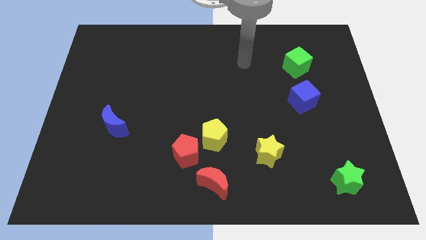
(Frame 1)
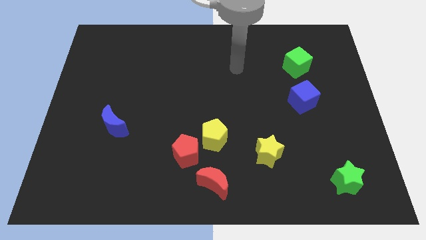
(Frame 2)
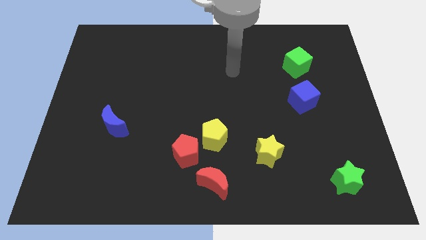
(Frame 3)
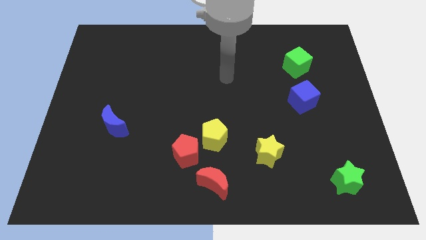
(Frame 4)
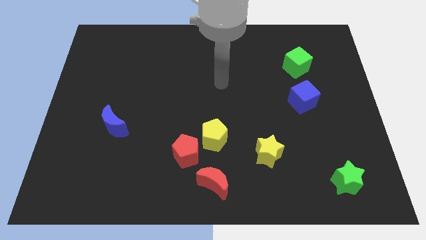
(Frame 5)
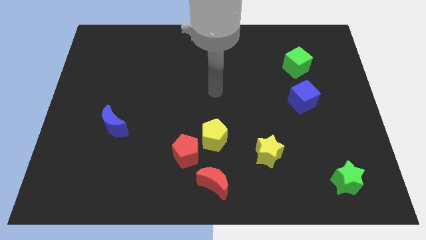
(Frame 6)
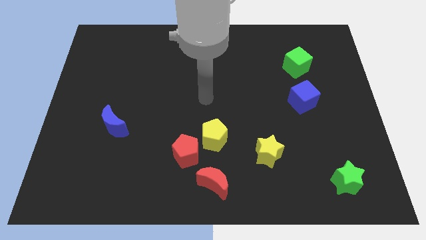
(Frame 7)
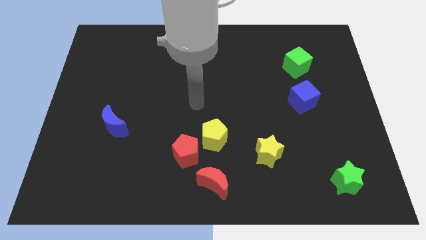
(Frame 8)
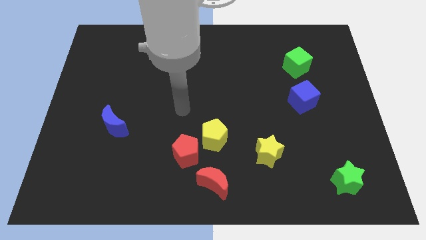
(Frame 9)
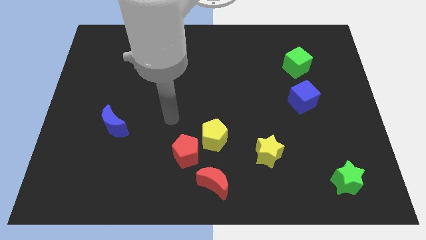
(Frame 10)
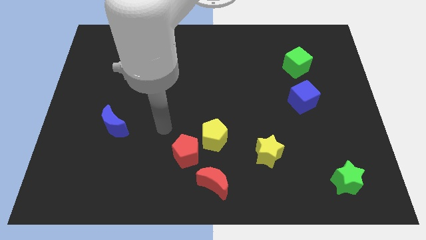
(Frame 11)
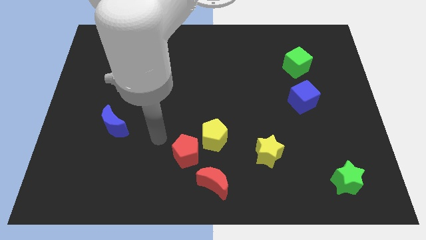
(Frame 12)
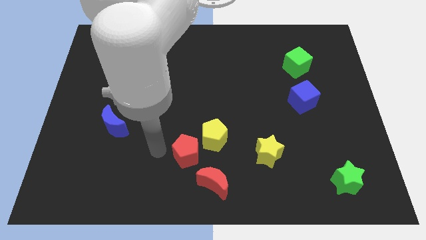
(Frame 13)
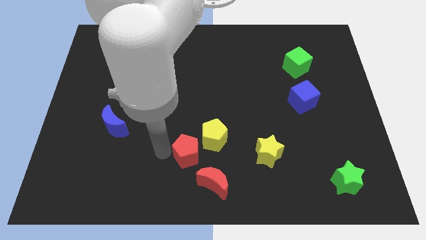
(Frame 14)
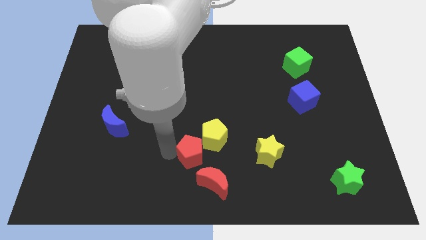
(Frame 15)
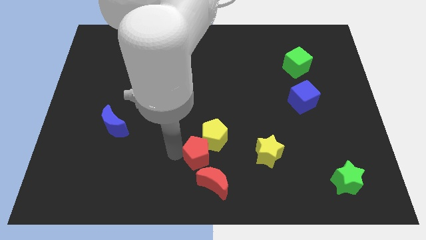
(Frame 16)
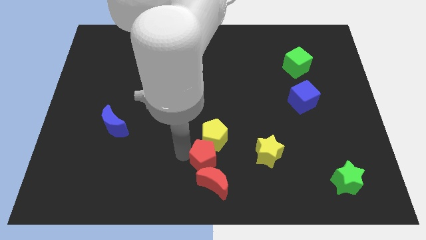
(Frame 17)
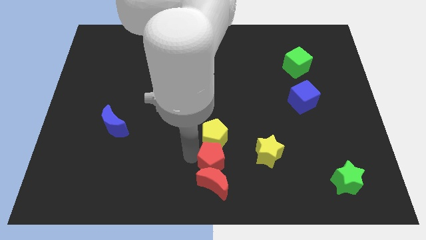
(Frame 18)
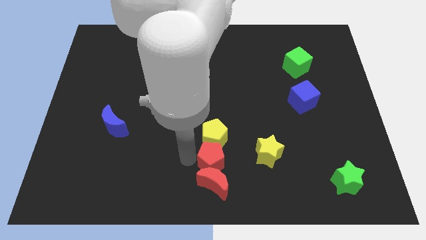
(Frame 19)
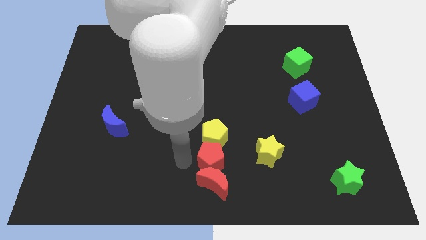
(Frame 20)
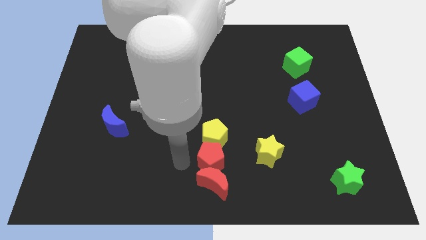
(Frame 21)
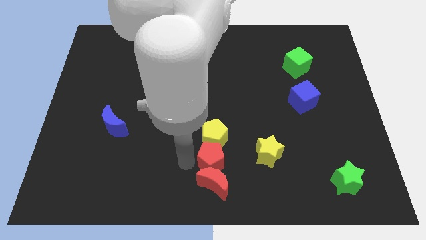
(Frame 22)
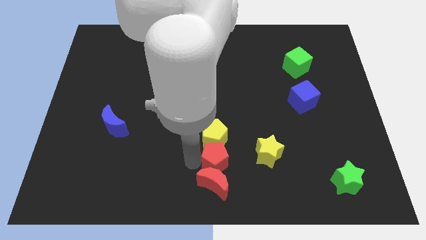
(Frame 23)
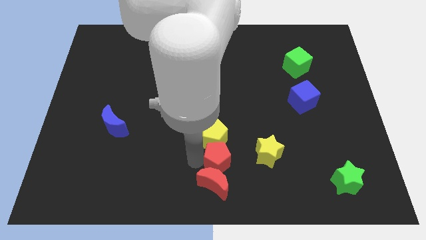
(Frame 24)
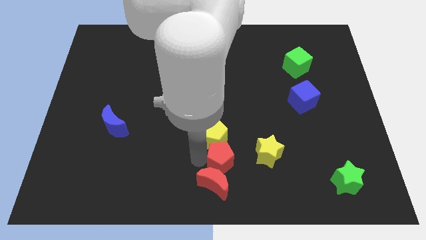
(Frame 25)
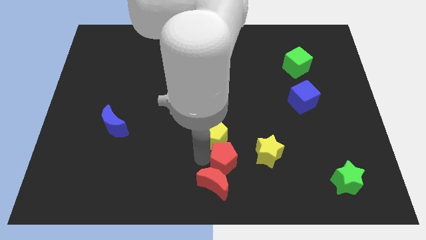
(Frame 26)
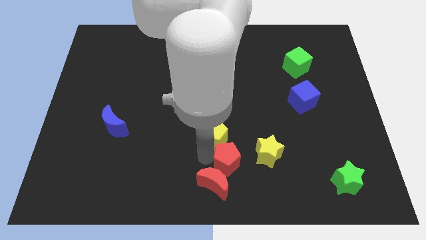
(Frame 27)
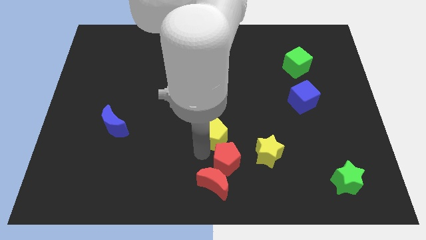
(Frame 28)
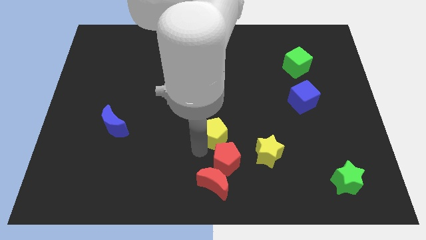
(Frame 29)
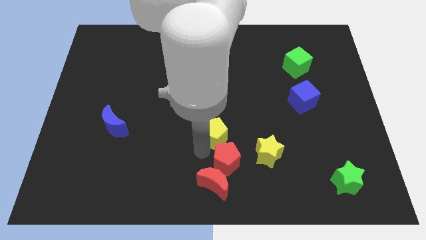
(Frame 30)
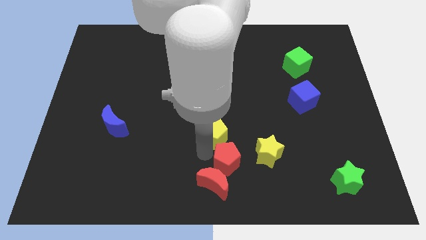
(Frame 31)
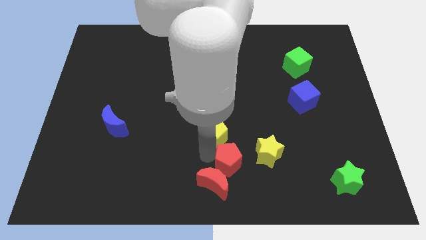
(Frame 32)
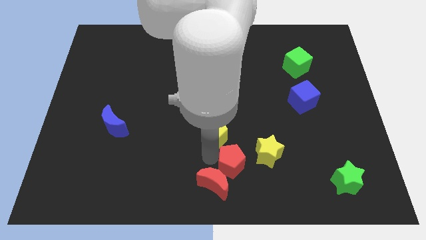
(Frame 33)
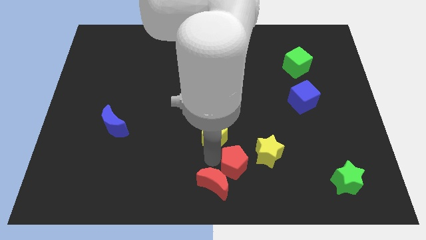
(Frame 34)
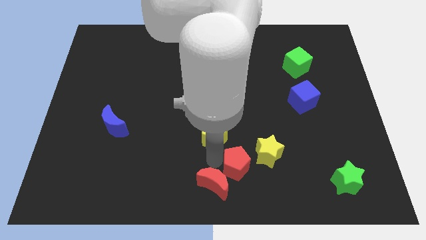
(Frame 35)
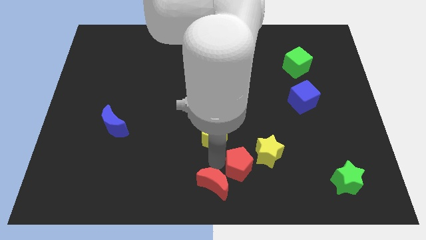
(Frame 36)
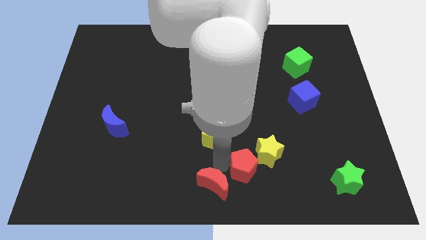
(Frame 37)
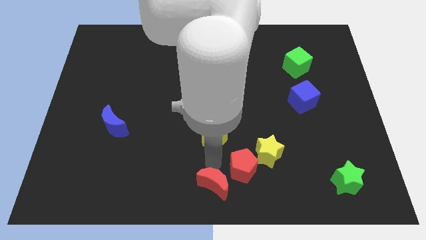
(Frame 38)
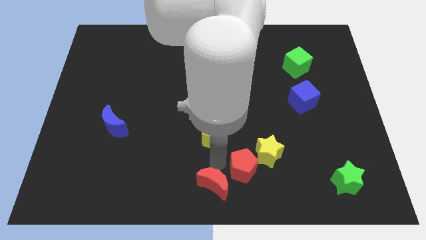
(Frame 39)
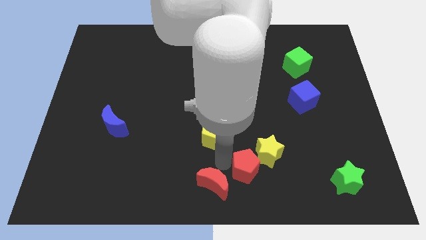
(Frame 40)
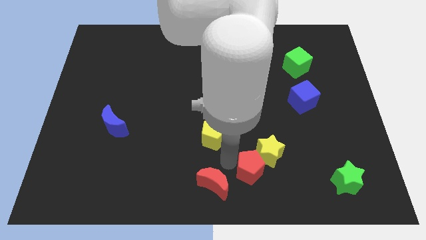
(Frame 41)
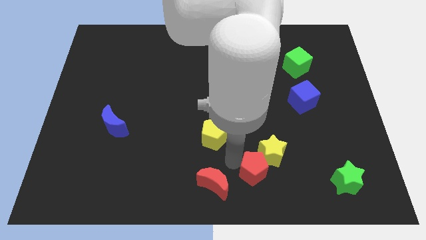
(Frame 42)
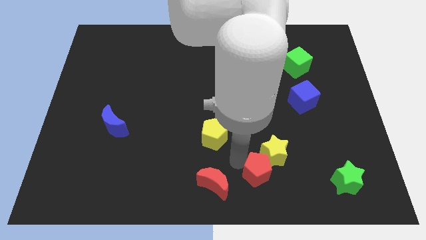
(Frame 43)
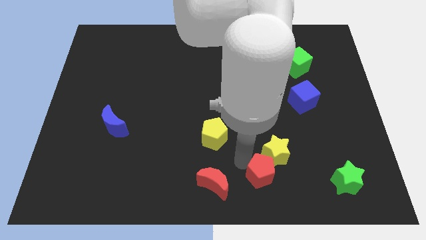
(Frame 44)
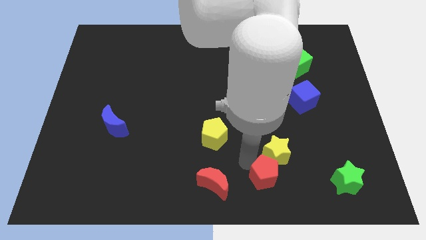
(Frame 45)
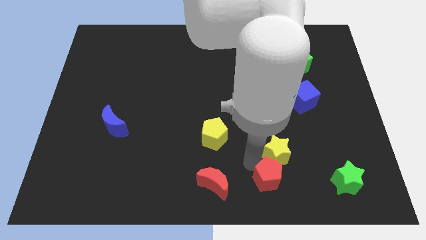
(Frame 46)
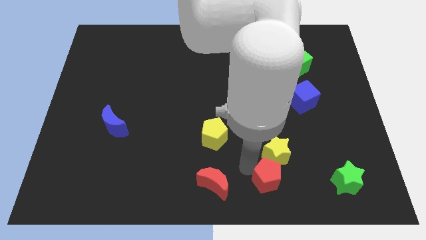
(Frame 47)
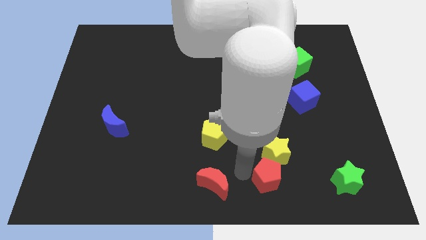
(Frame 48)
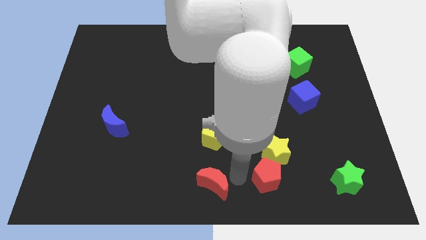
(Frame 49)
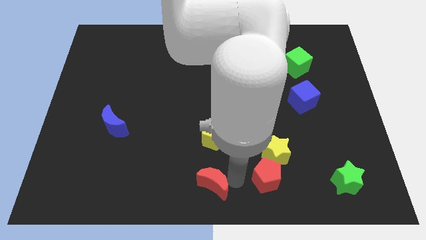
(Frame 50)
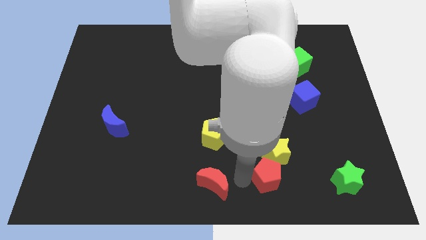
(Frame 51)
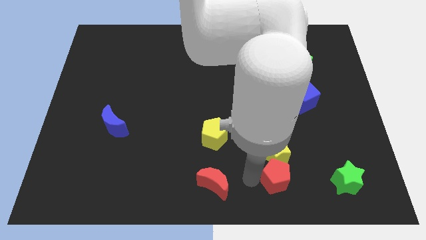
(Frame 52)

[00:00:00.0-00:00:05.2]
slide the red pentagon to the bottom right side of the yellow star

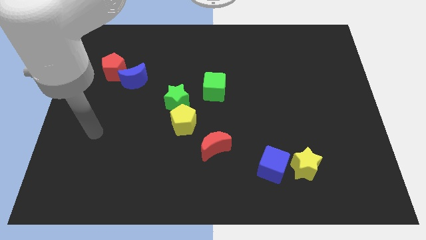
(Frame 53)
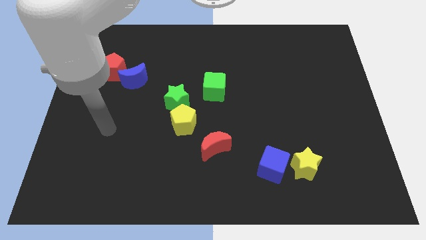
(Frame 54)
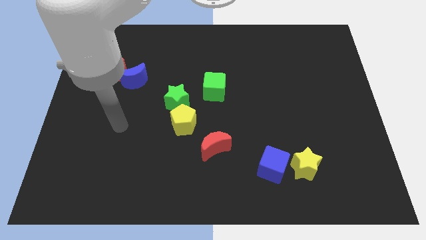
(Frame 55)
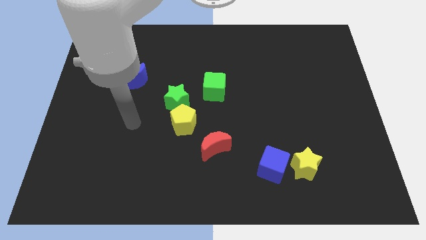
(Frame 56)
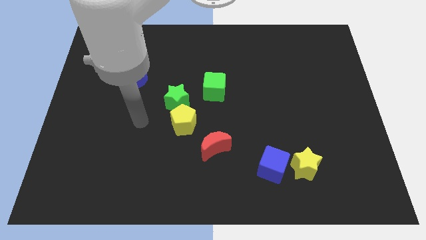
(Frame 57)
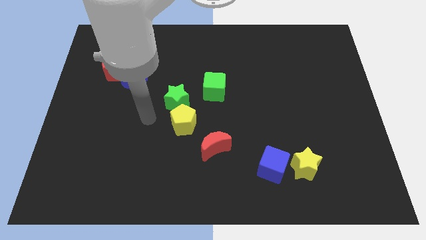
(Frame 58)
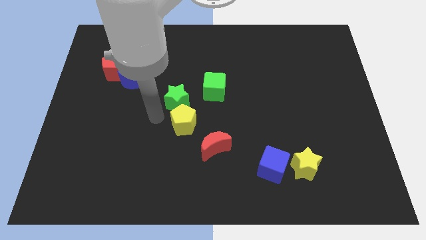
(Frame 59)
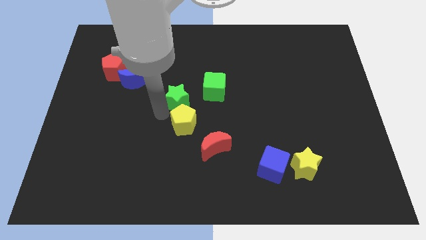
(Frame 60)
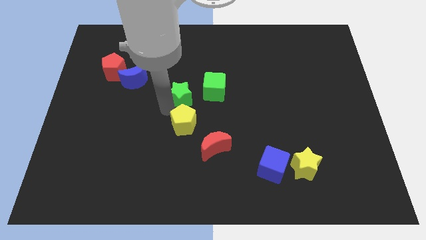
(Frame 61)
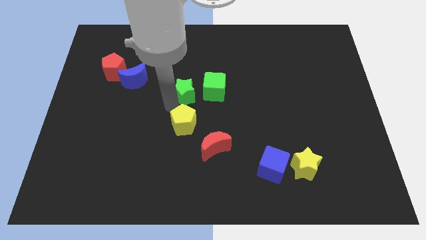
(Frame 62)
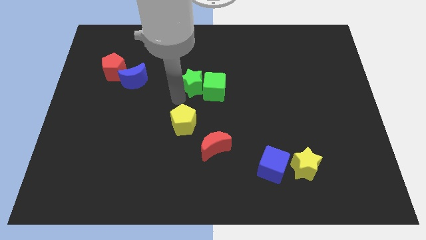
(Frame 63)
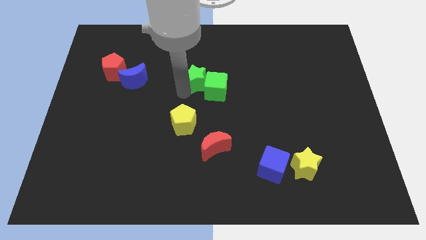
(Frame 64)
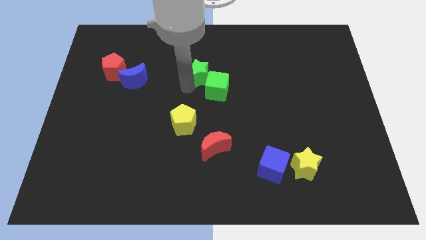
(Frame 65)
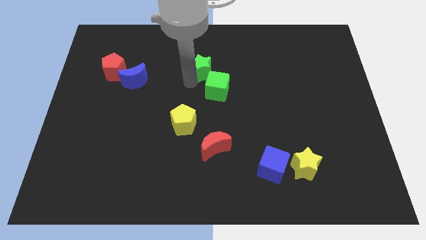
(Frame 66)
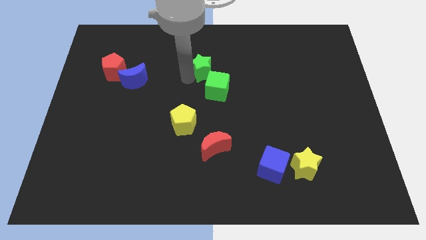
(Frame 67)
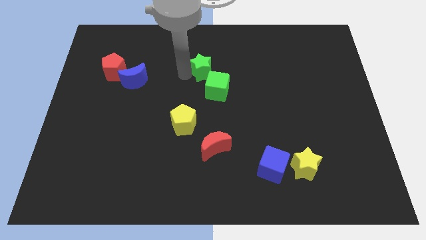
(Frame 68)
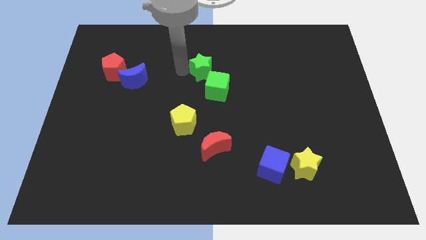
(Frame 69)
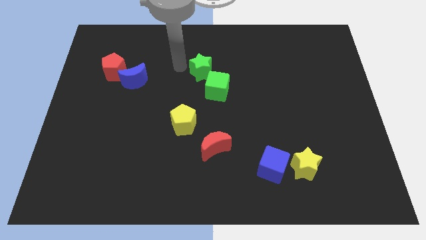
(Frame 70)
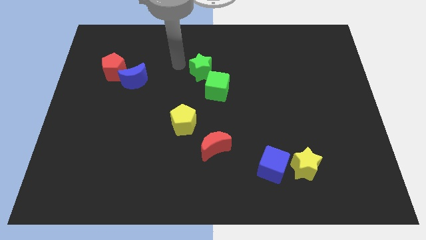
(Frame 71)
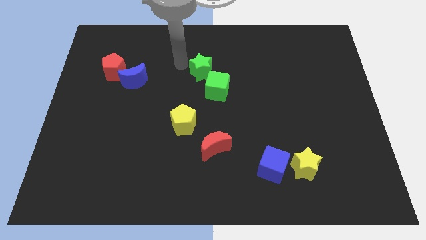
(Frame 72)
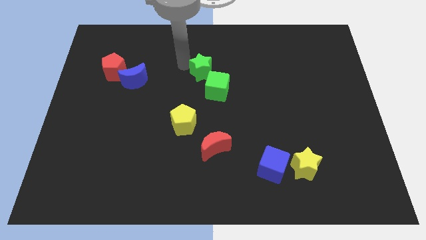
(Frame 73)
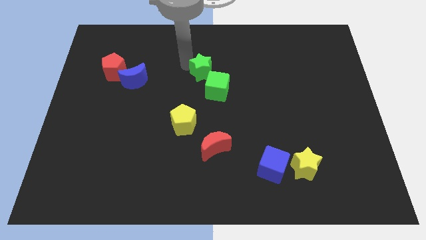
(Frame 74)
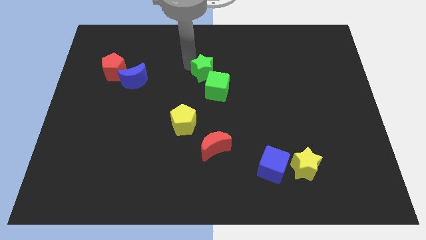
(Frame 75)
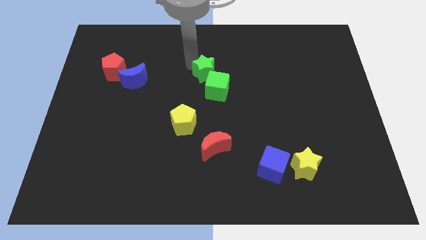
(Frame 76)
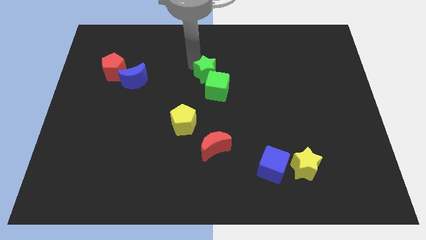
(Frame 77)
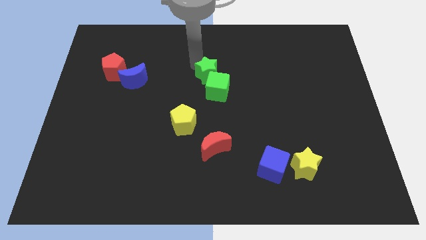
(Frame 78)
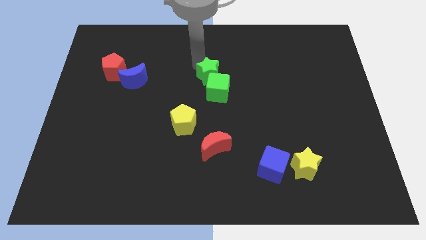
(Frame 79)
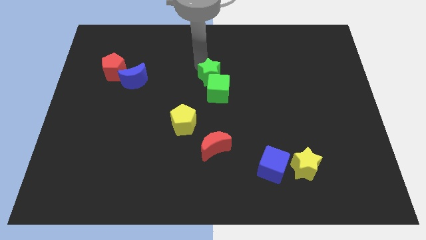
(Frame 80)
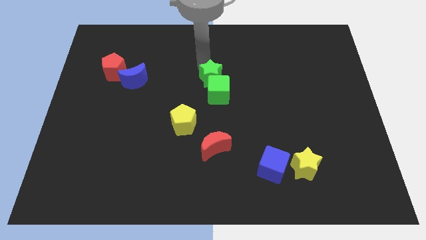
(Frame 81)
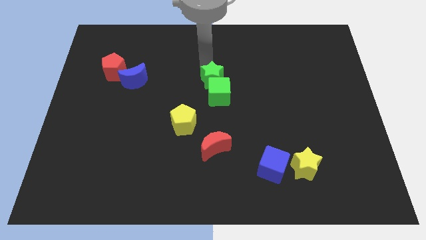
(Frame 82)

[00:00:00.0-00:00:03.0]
slide the green star to the top right of the green cube
